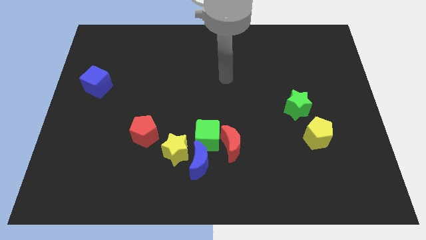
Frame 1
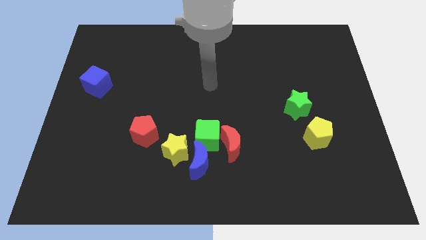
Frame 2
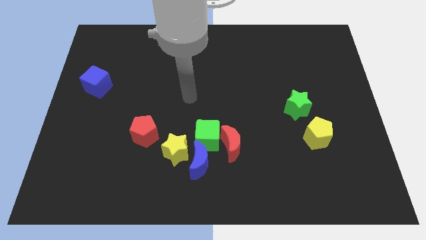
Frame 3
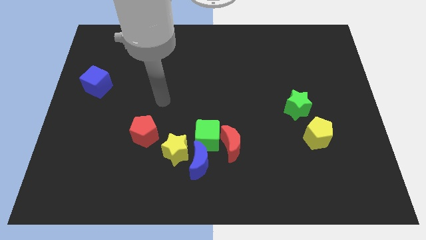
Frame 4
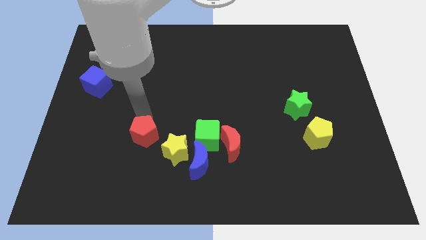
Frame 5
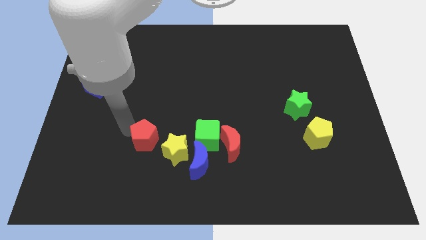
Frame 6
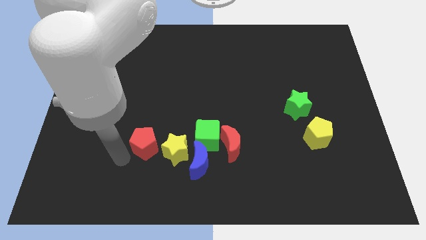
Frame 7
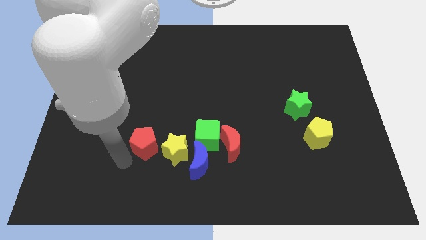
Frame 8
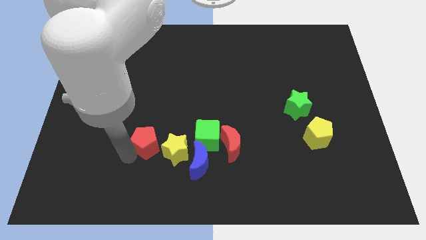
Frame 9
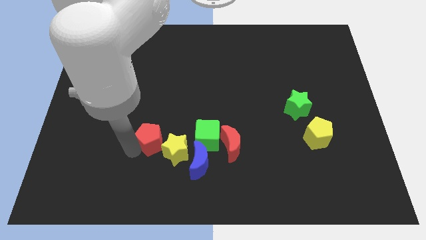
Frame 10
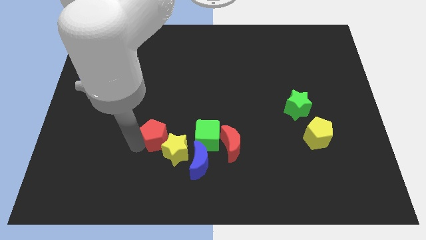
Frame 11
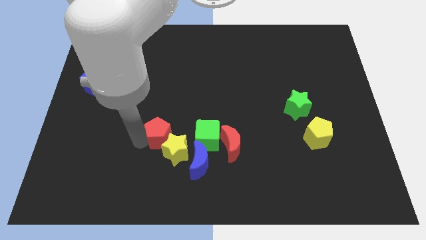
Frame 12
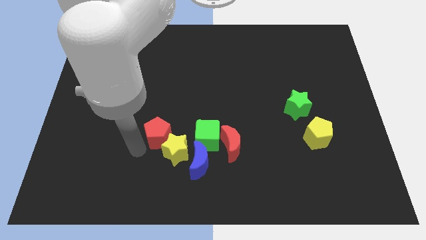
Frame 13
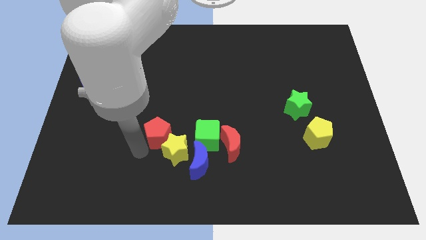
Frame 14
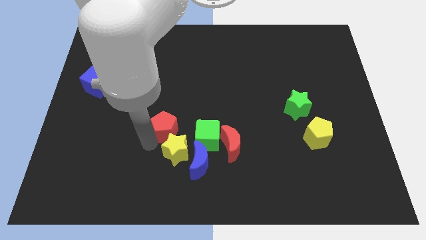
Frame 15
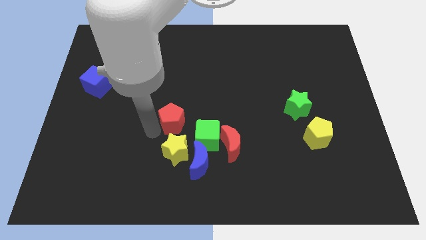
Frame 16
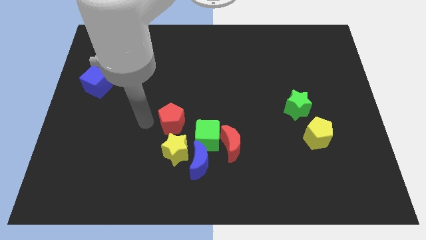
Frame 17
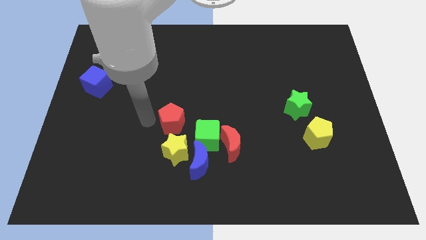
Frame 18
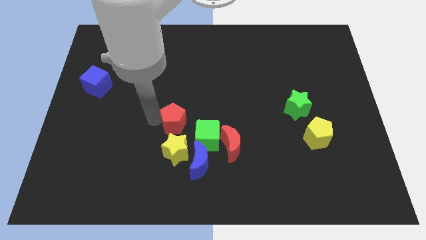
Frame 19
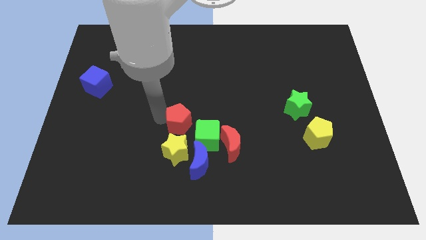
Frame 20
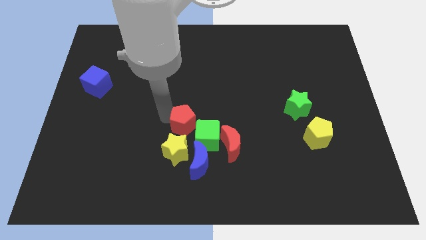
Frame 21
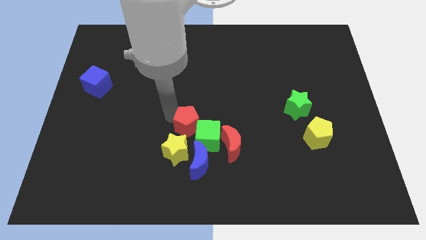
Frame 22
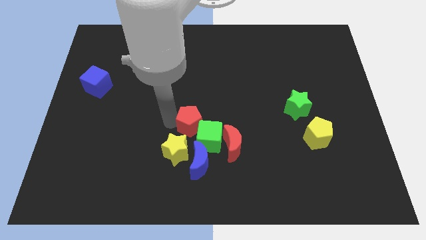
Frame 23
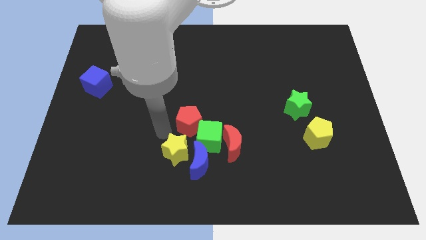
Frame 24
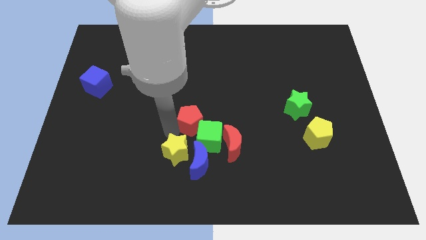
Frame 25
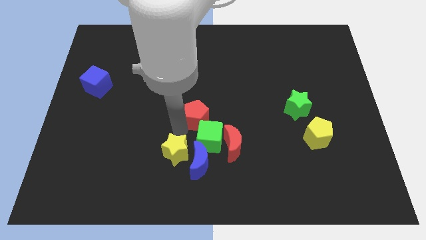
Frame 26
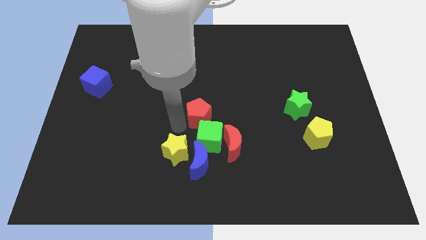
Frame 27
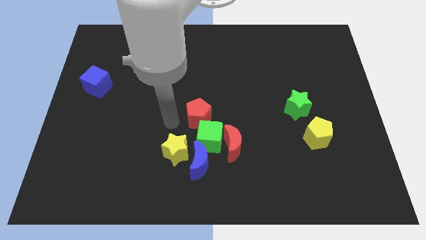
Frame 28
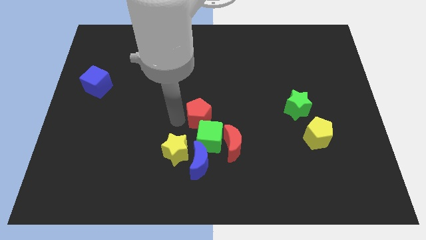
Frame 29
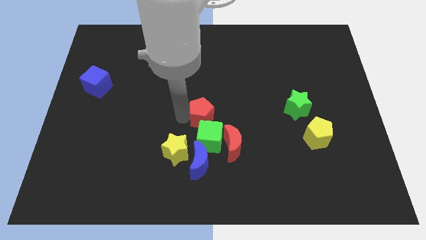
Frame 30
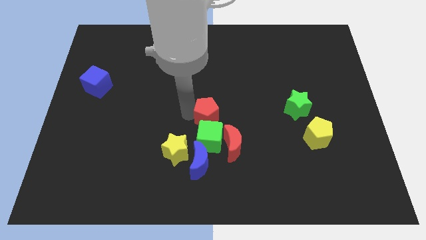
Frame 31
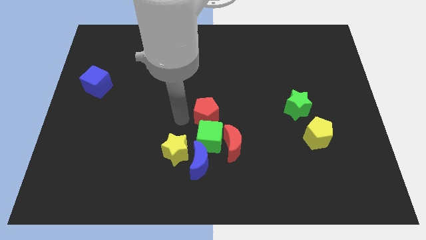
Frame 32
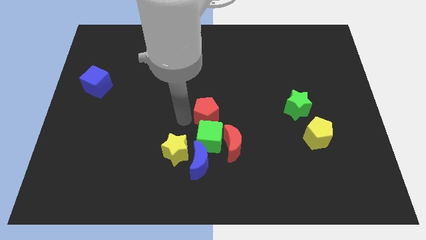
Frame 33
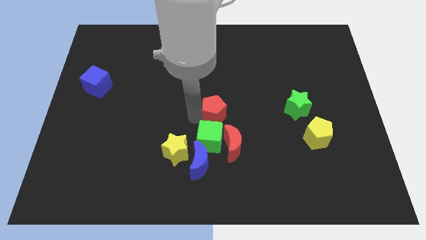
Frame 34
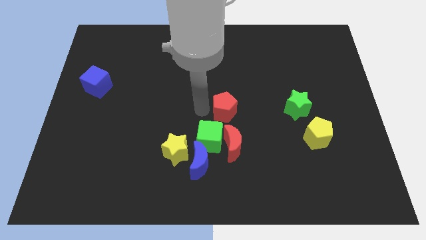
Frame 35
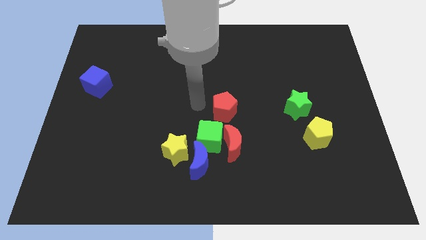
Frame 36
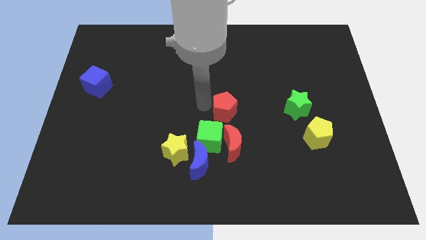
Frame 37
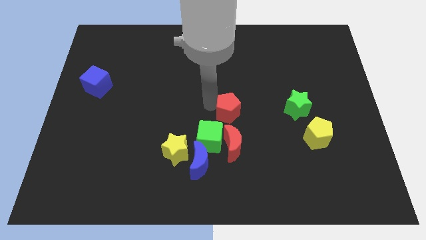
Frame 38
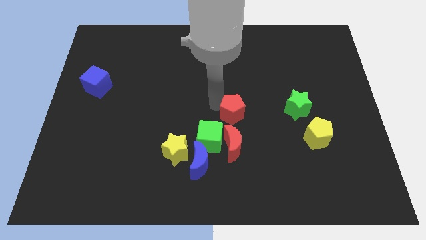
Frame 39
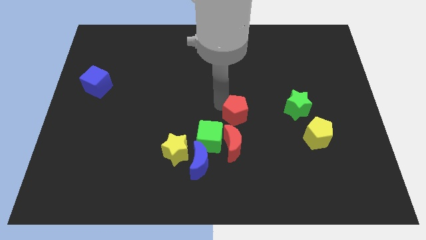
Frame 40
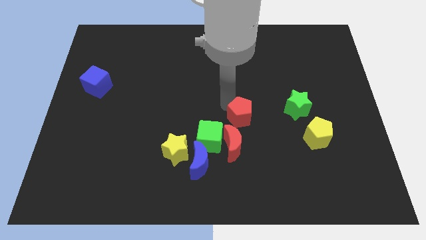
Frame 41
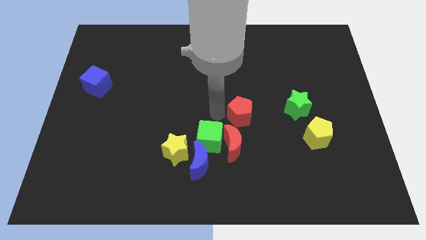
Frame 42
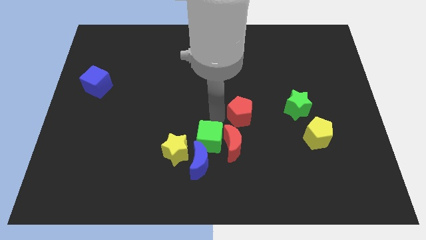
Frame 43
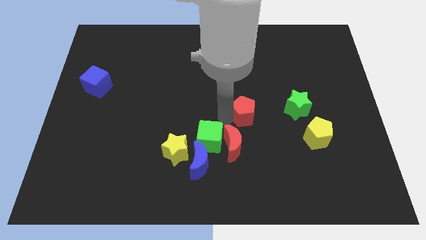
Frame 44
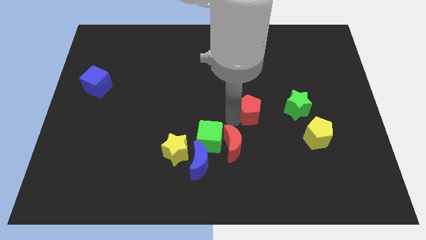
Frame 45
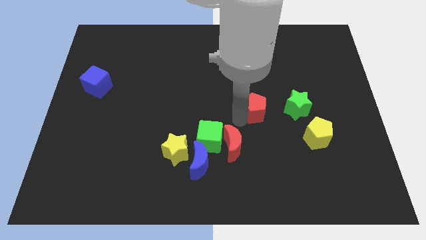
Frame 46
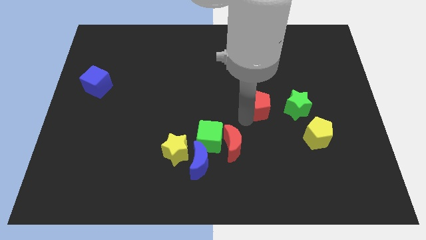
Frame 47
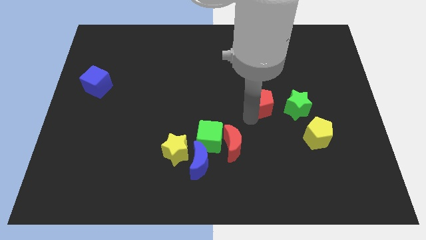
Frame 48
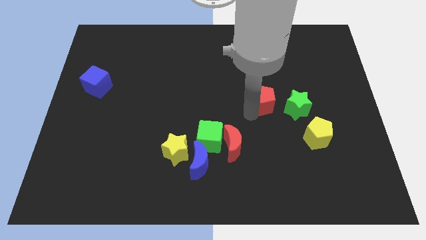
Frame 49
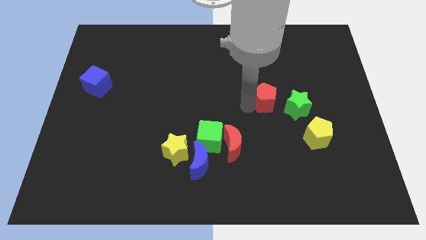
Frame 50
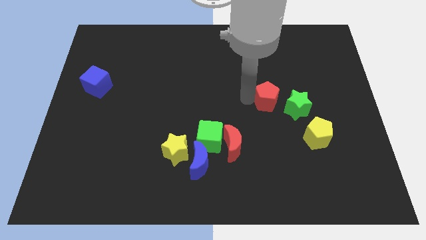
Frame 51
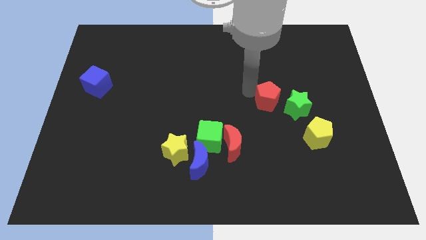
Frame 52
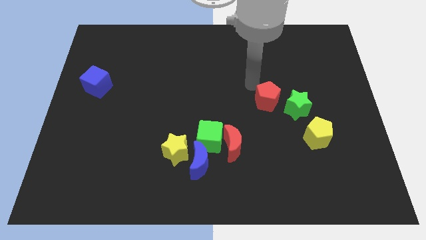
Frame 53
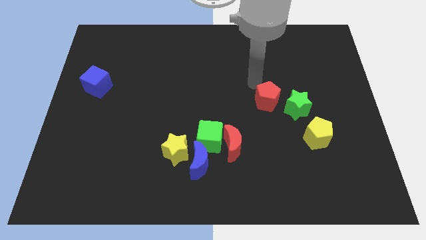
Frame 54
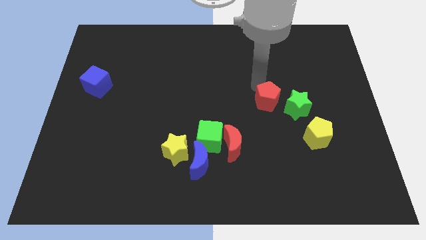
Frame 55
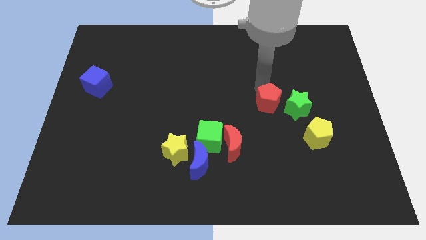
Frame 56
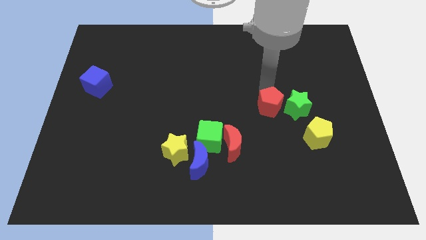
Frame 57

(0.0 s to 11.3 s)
slide the red pentagon close to the green star

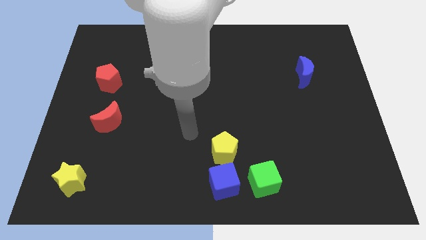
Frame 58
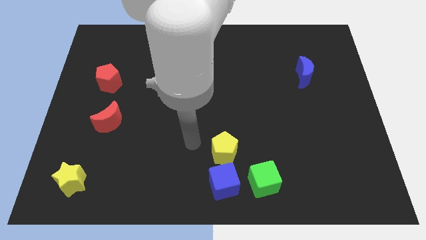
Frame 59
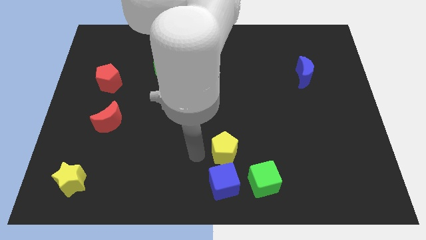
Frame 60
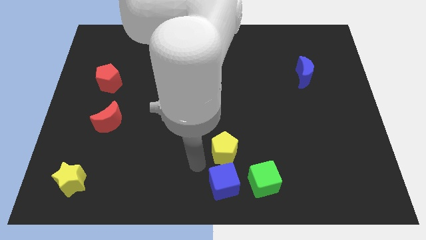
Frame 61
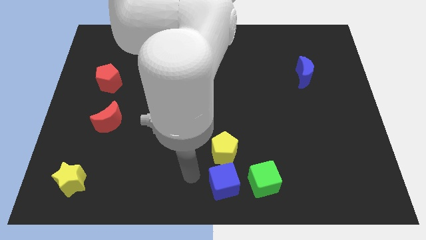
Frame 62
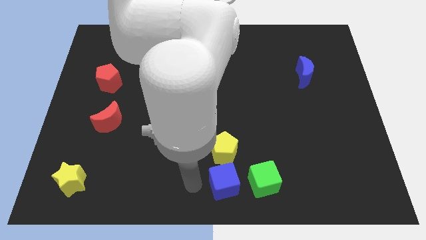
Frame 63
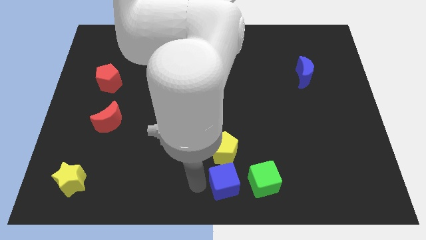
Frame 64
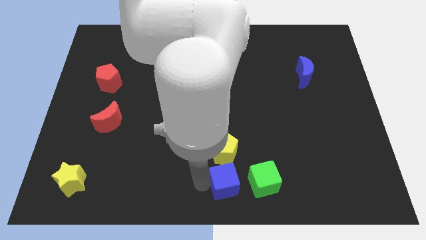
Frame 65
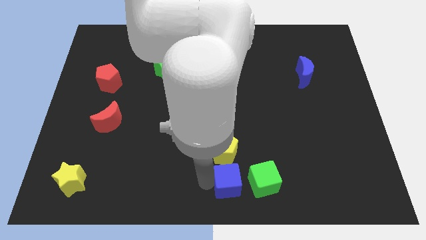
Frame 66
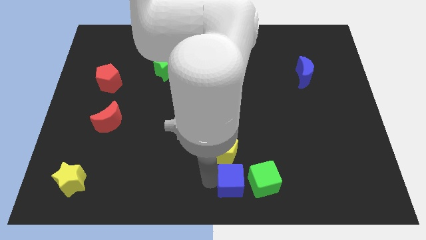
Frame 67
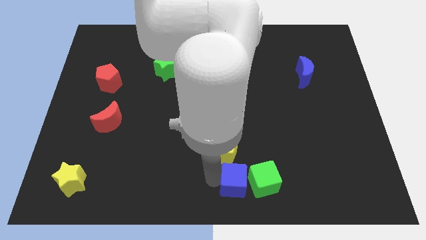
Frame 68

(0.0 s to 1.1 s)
push the blue cube to the green cube
